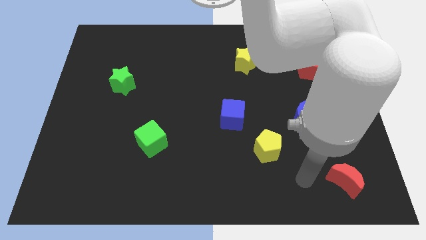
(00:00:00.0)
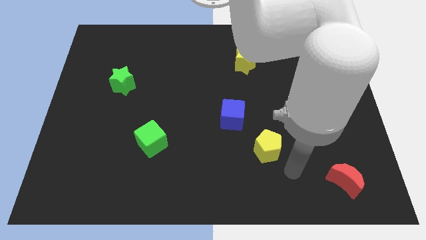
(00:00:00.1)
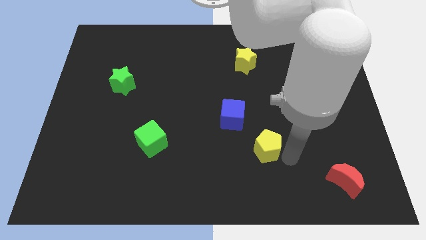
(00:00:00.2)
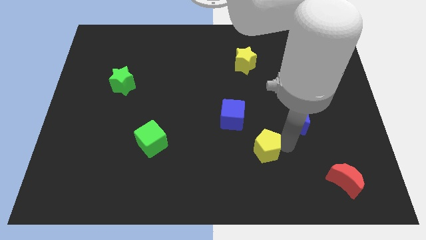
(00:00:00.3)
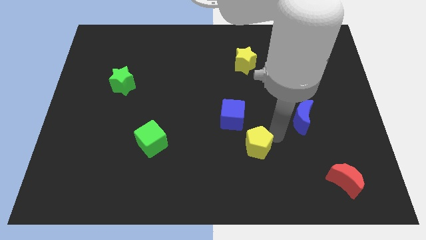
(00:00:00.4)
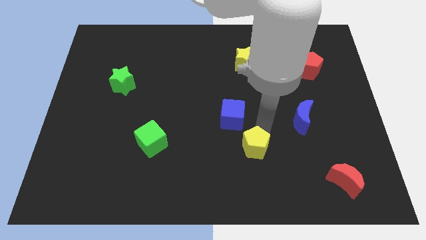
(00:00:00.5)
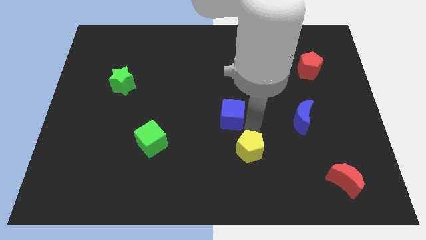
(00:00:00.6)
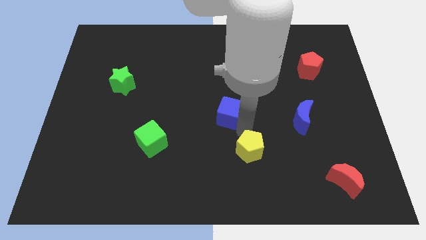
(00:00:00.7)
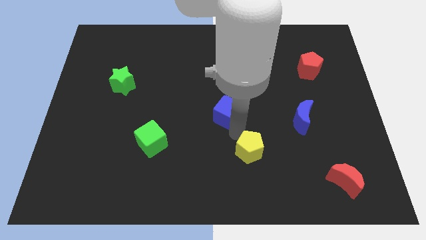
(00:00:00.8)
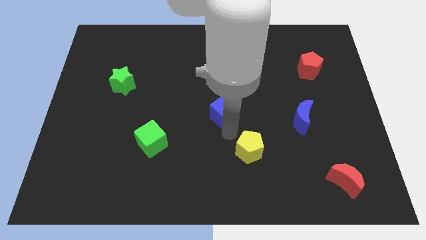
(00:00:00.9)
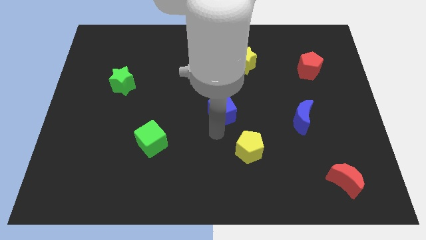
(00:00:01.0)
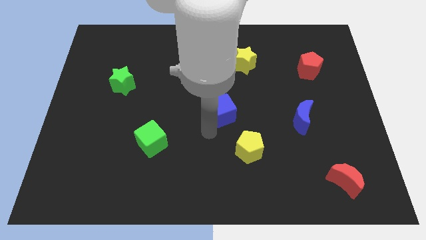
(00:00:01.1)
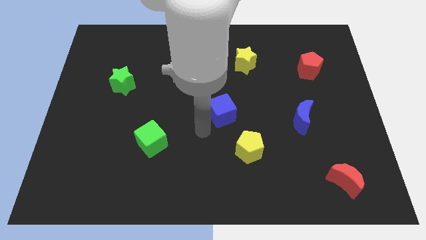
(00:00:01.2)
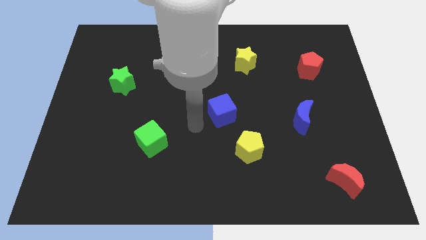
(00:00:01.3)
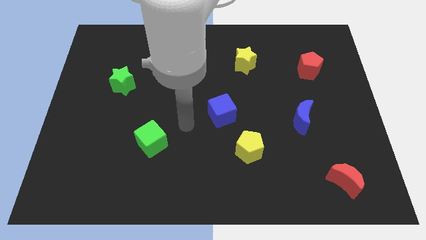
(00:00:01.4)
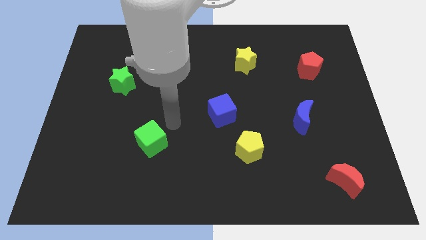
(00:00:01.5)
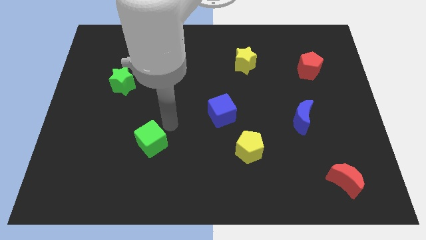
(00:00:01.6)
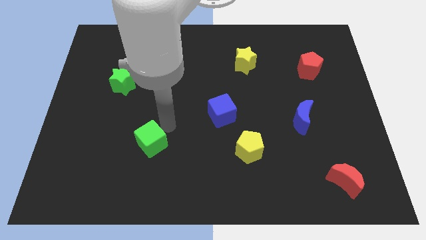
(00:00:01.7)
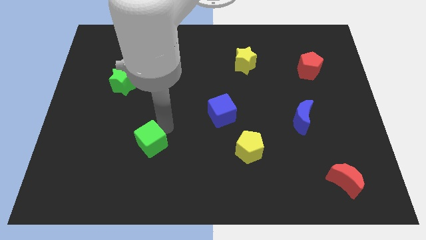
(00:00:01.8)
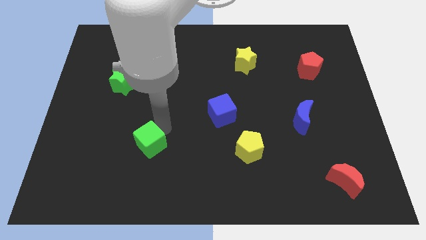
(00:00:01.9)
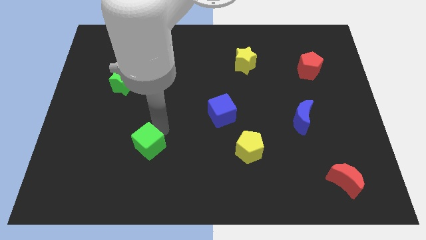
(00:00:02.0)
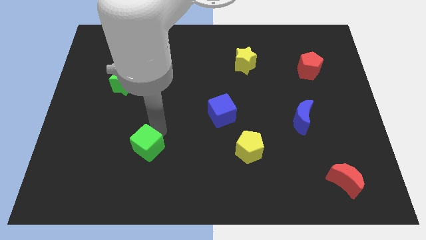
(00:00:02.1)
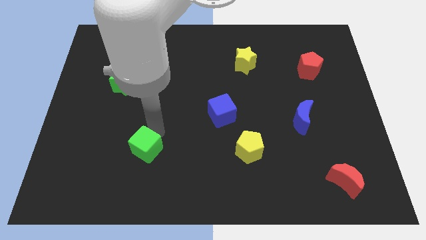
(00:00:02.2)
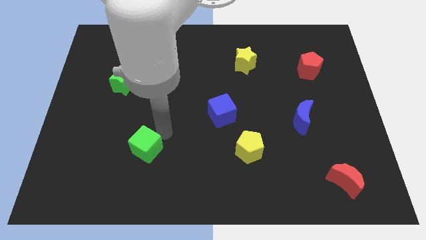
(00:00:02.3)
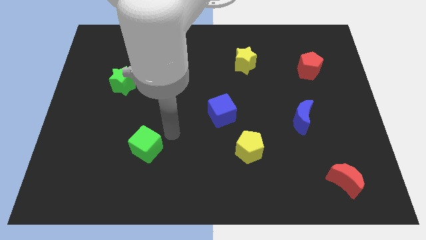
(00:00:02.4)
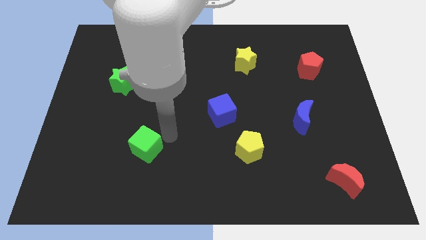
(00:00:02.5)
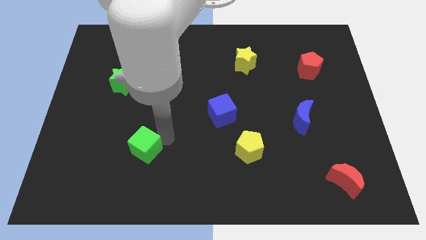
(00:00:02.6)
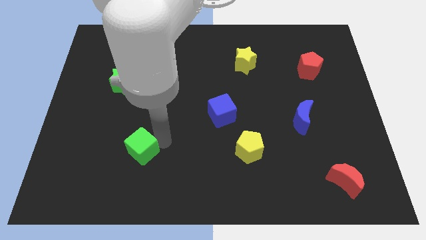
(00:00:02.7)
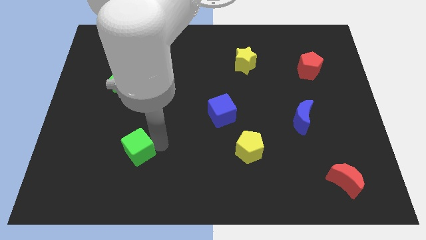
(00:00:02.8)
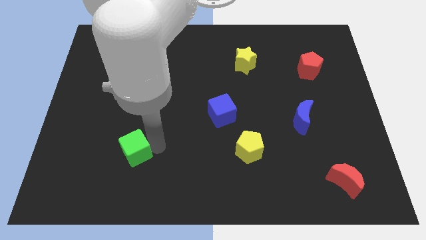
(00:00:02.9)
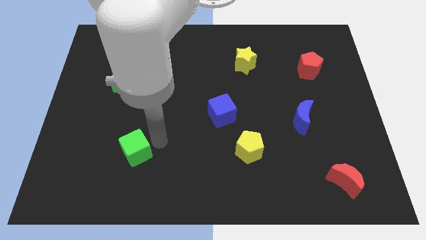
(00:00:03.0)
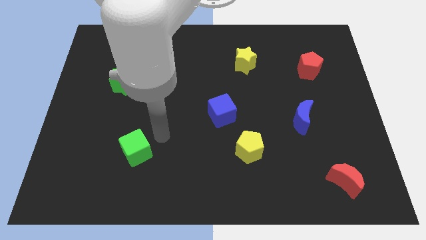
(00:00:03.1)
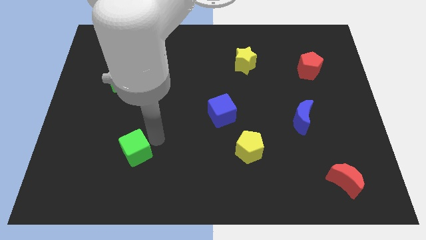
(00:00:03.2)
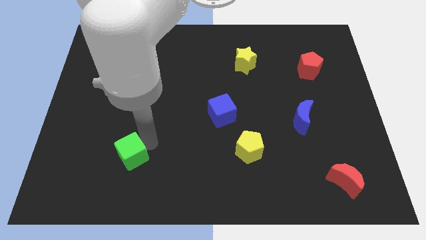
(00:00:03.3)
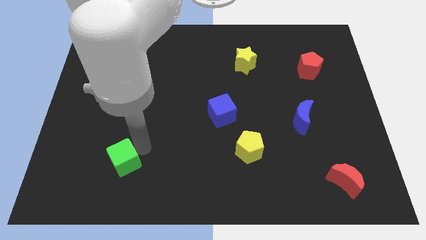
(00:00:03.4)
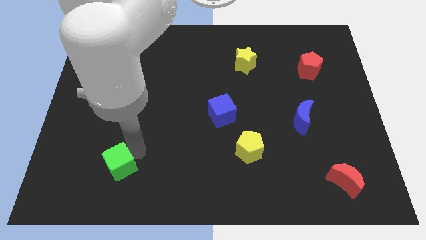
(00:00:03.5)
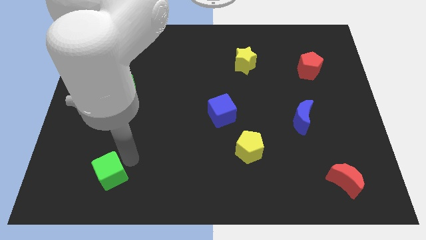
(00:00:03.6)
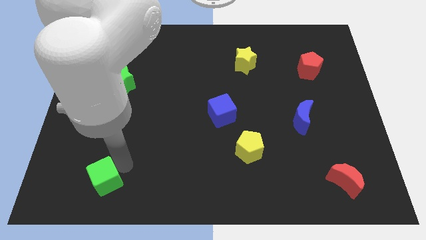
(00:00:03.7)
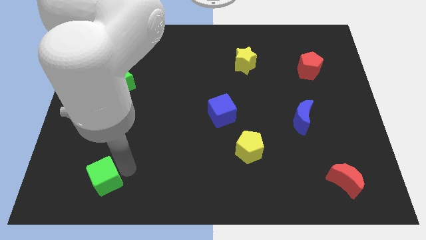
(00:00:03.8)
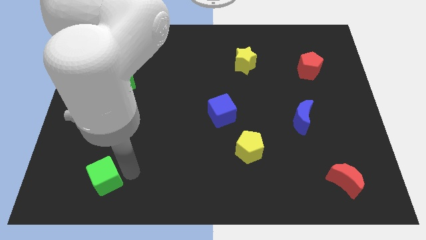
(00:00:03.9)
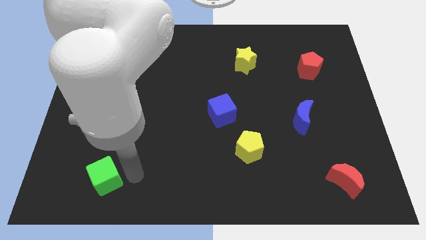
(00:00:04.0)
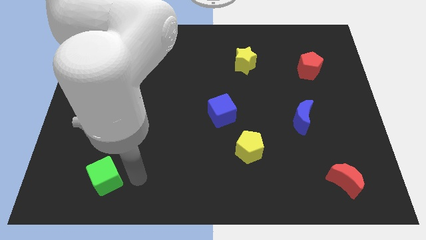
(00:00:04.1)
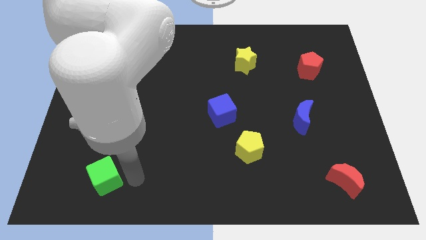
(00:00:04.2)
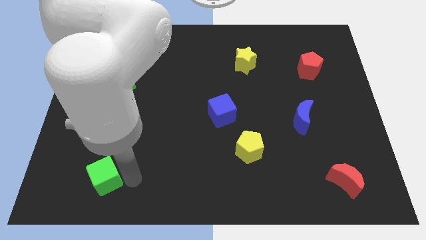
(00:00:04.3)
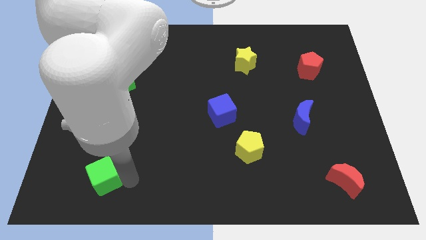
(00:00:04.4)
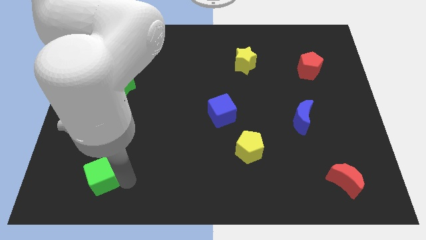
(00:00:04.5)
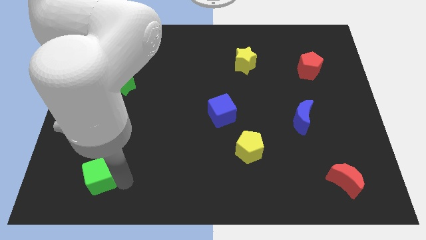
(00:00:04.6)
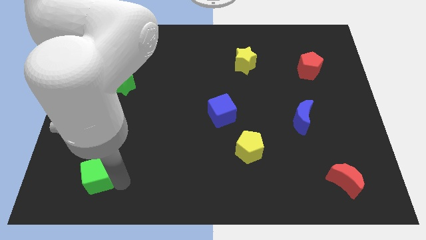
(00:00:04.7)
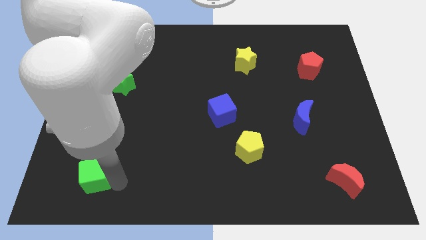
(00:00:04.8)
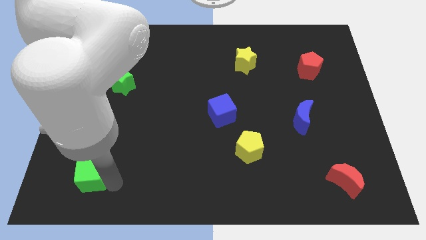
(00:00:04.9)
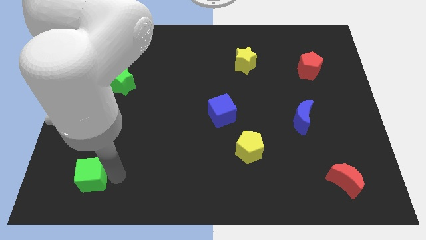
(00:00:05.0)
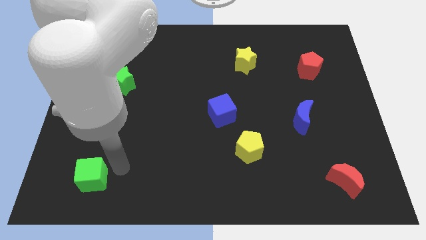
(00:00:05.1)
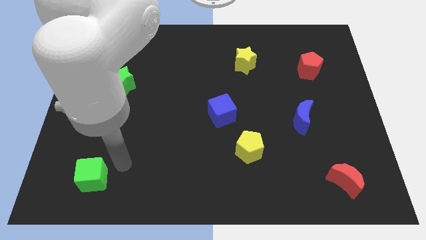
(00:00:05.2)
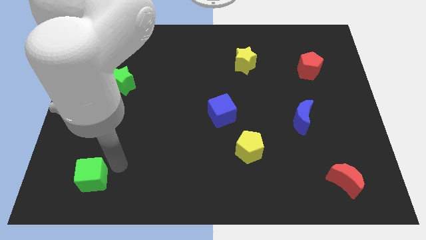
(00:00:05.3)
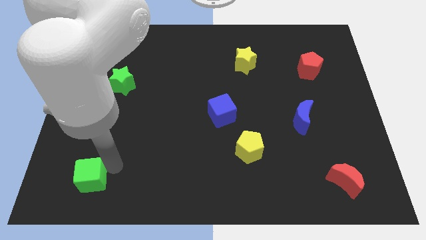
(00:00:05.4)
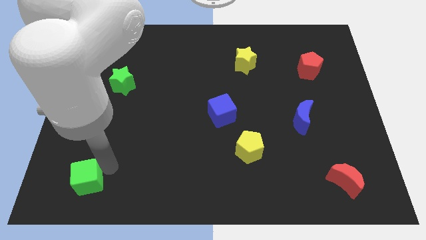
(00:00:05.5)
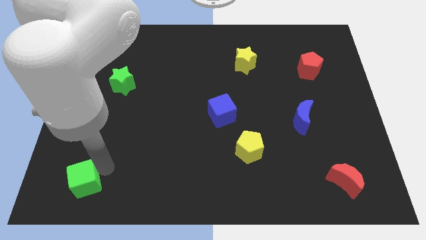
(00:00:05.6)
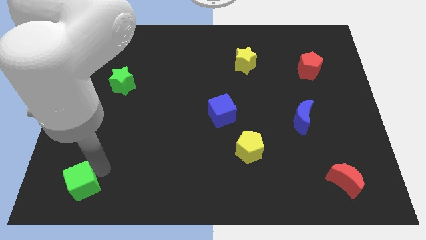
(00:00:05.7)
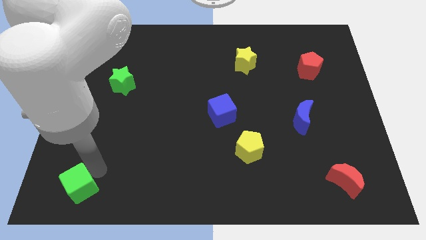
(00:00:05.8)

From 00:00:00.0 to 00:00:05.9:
move the green cube to the bottom left of the board
